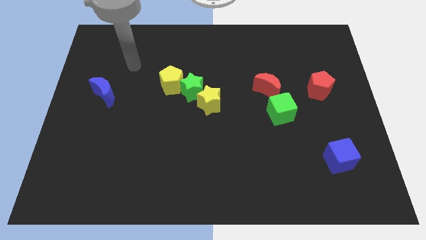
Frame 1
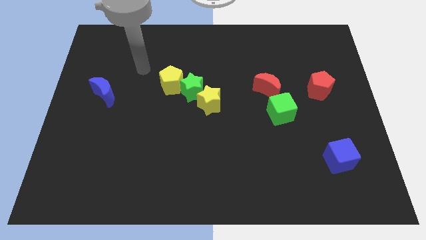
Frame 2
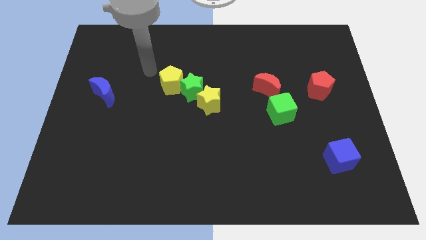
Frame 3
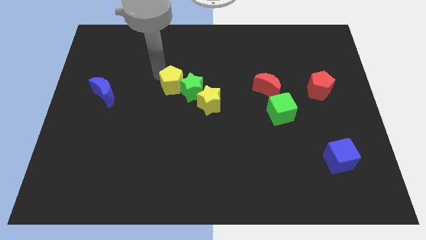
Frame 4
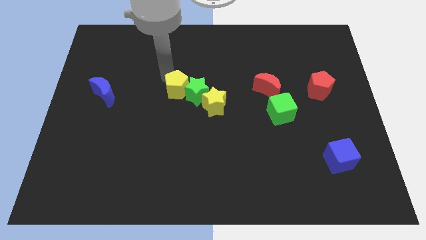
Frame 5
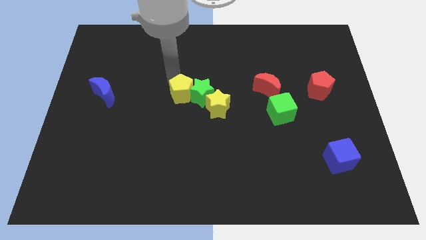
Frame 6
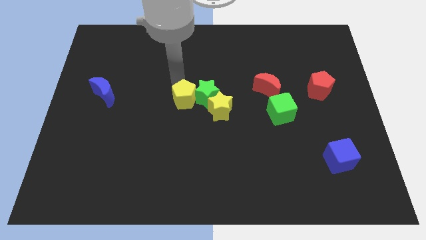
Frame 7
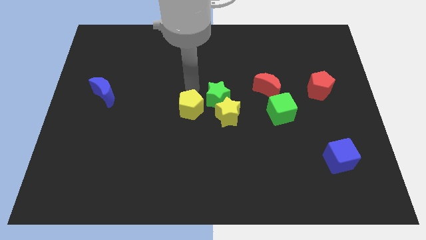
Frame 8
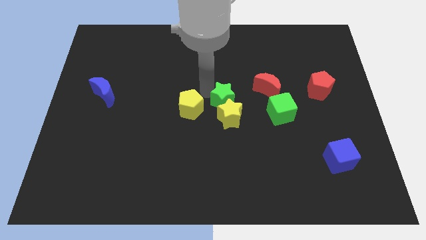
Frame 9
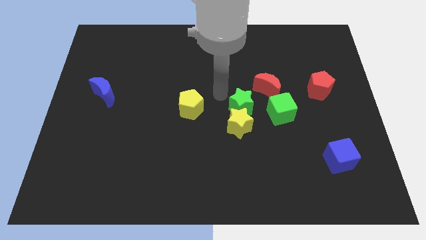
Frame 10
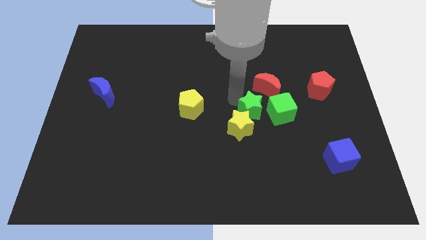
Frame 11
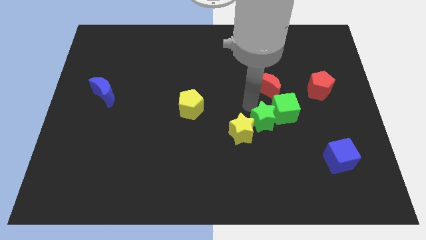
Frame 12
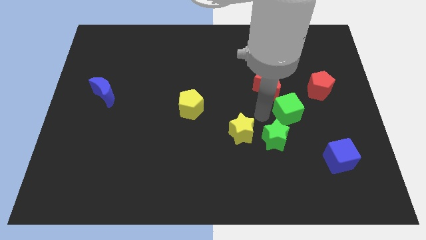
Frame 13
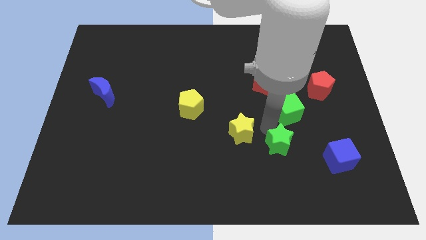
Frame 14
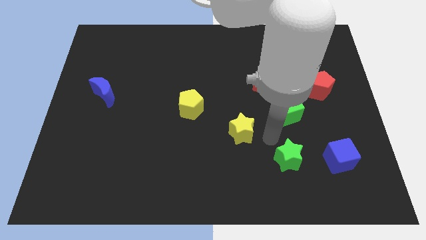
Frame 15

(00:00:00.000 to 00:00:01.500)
separate the yellow star from the green star

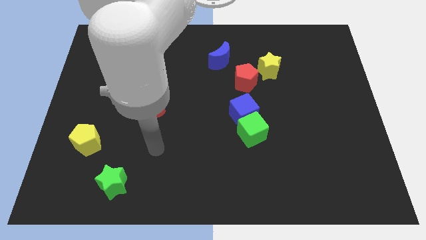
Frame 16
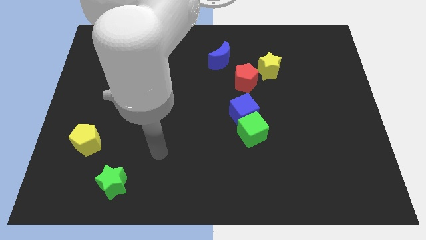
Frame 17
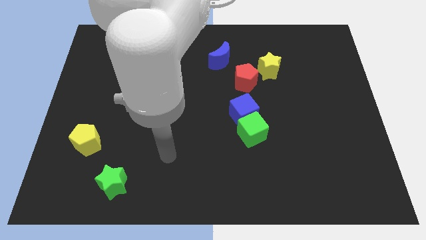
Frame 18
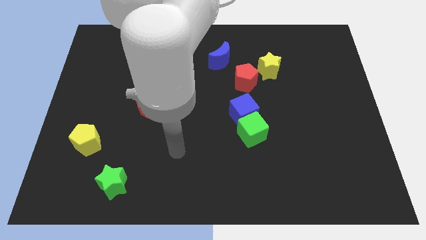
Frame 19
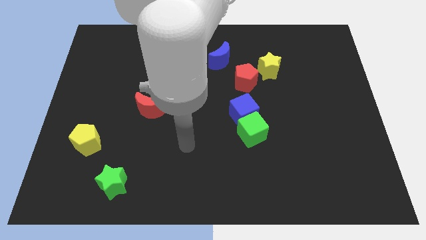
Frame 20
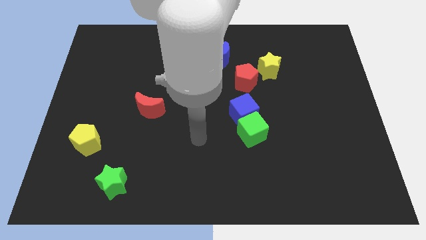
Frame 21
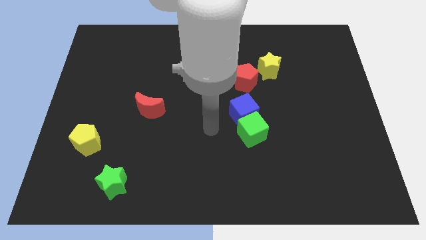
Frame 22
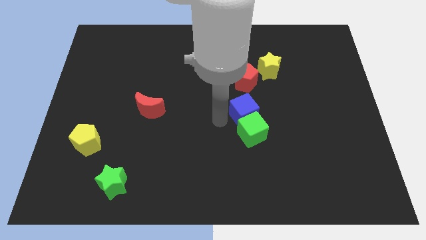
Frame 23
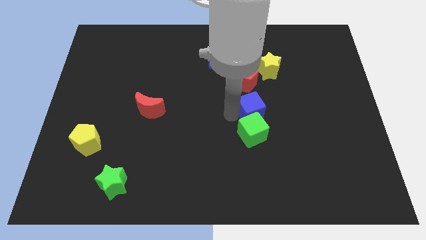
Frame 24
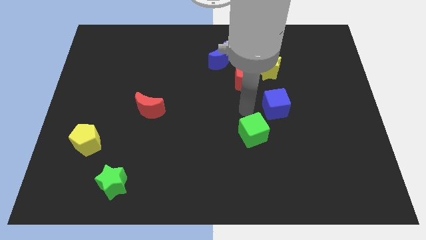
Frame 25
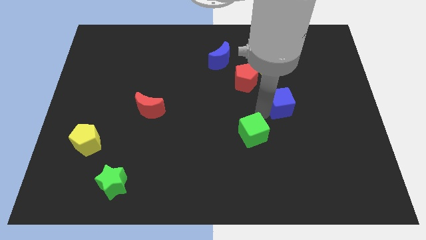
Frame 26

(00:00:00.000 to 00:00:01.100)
separate the green cube from the blue cube

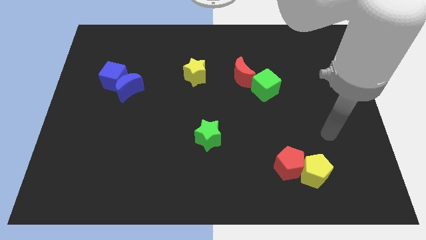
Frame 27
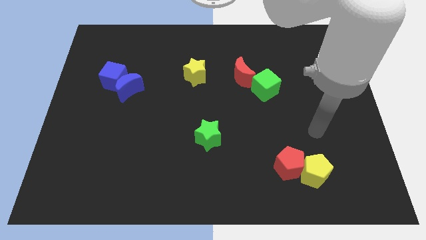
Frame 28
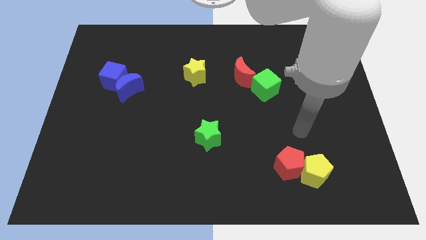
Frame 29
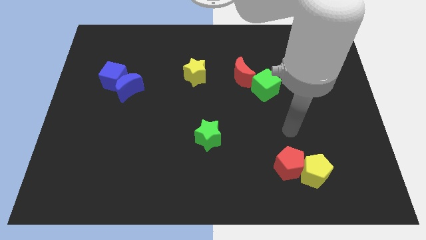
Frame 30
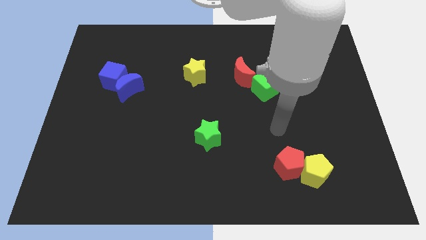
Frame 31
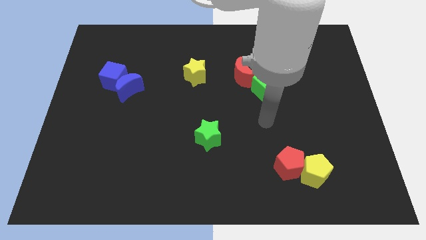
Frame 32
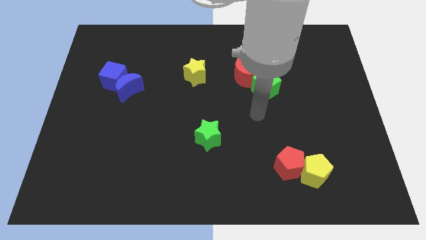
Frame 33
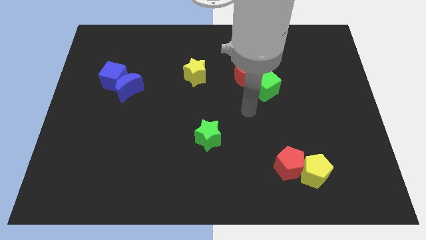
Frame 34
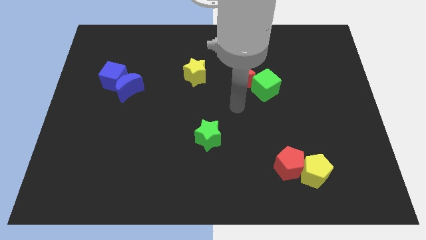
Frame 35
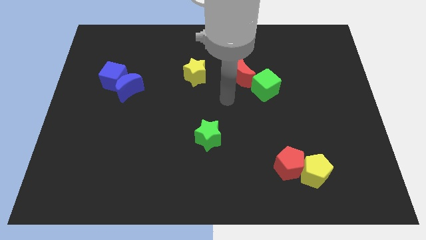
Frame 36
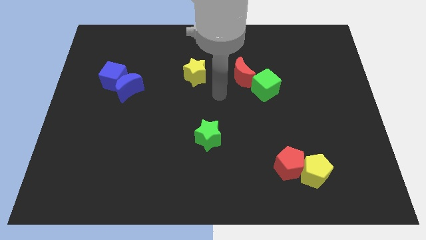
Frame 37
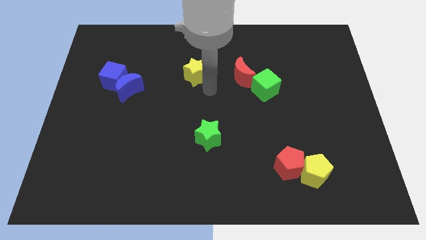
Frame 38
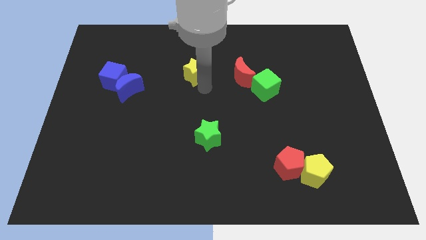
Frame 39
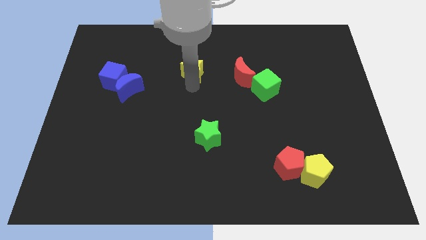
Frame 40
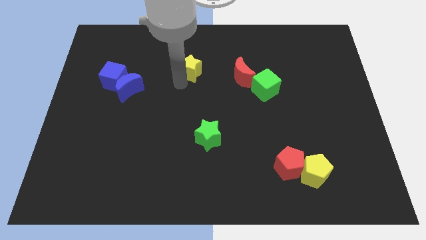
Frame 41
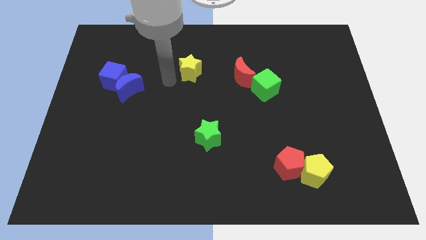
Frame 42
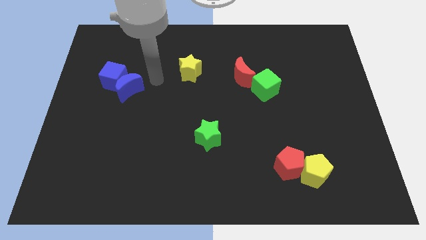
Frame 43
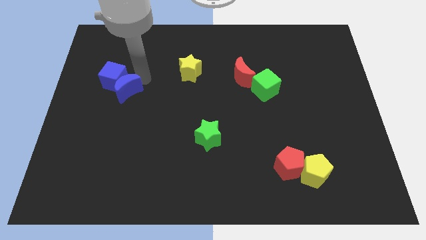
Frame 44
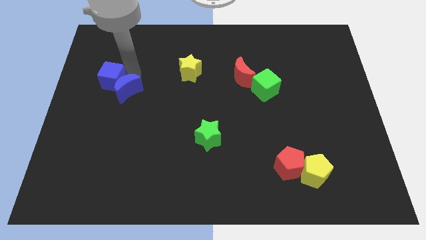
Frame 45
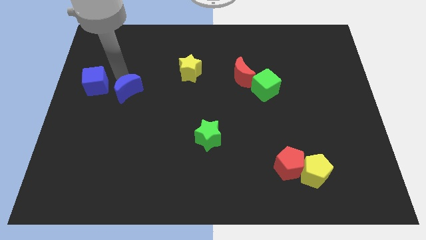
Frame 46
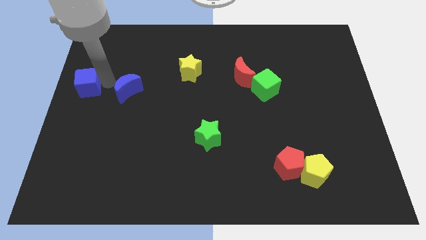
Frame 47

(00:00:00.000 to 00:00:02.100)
pull the blue moon apart from the blue cube

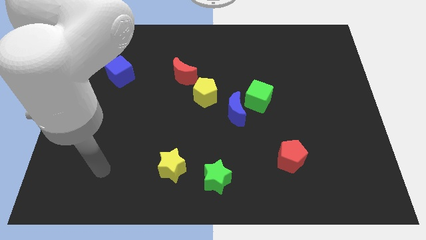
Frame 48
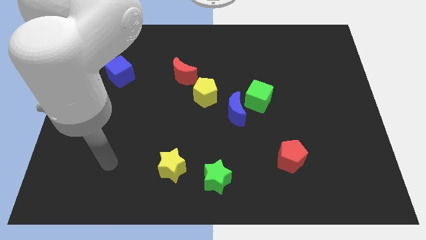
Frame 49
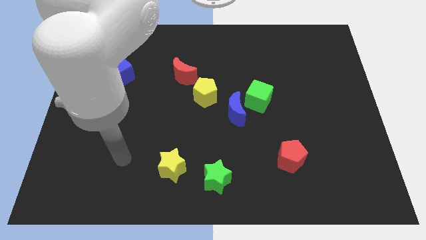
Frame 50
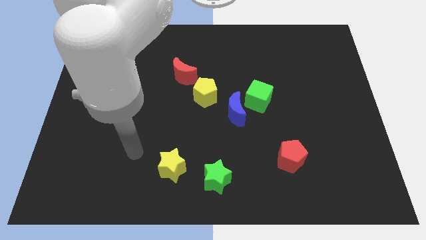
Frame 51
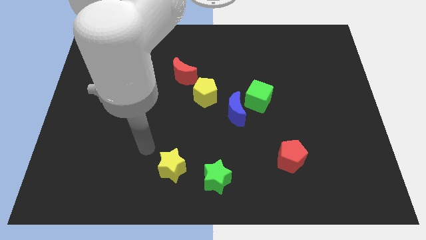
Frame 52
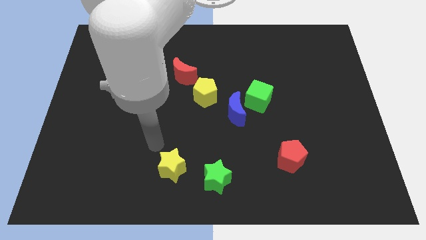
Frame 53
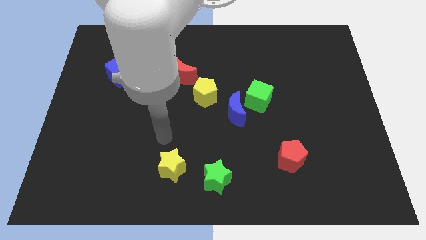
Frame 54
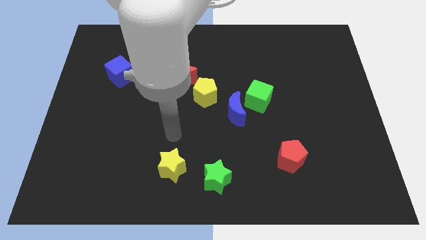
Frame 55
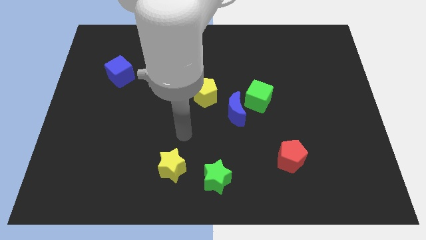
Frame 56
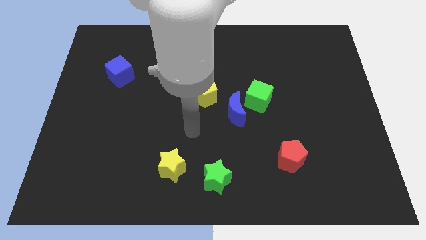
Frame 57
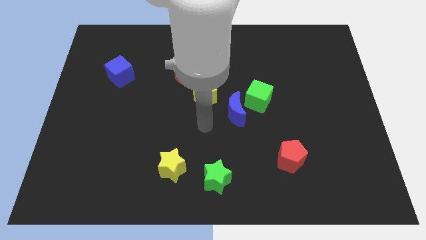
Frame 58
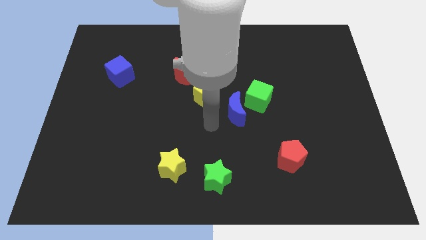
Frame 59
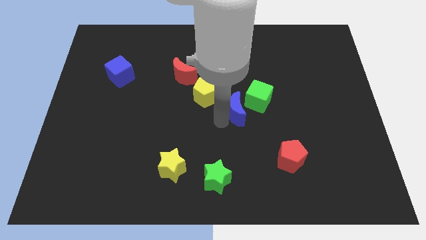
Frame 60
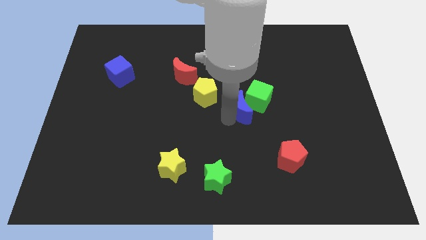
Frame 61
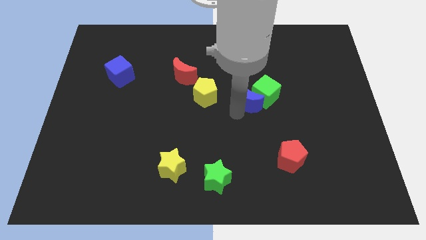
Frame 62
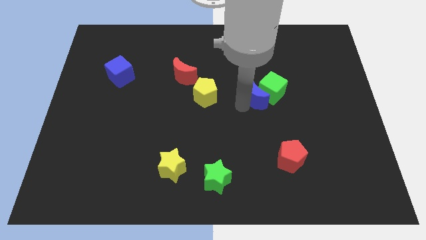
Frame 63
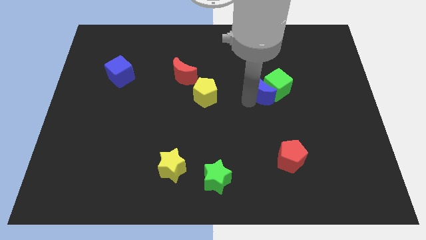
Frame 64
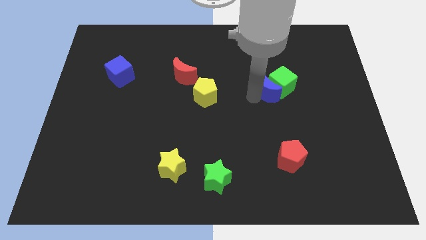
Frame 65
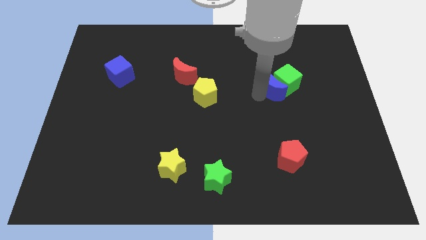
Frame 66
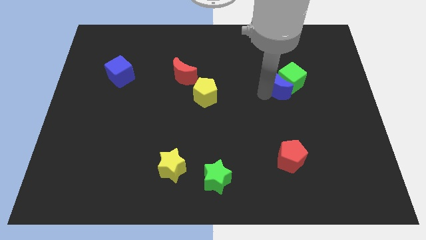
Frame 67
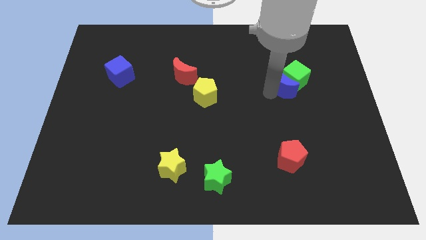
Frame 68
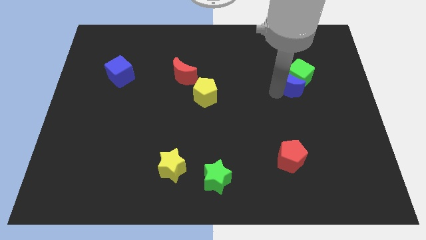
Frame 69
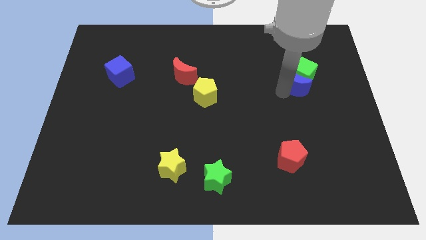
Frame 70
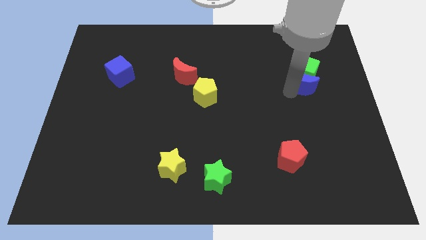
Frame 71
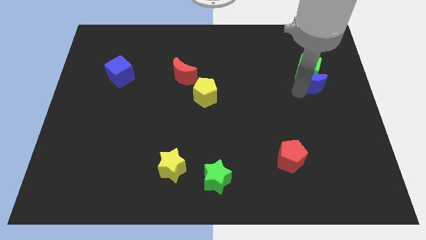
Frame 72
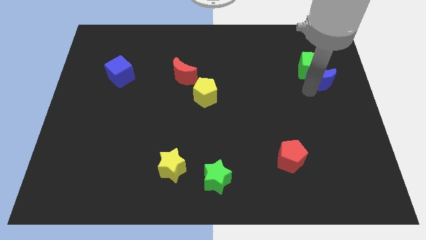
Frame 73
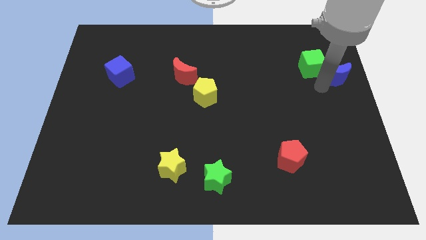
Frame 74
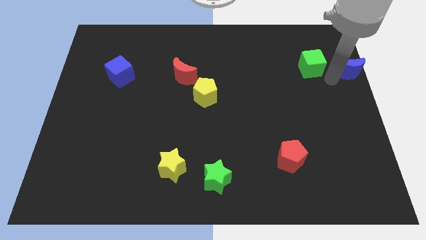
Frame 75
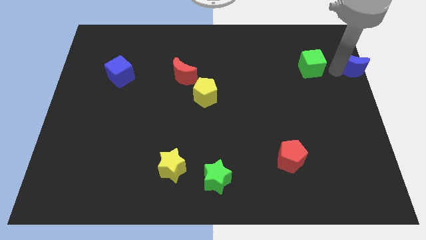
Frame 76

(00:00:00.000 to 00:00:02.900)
pull the green cube apart from the blue moon

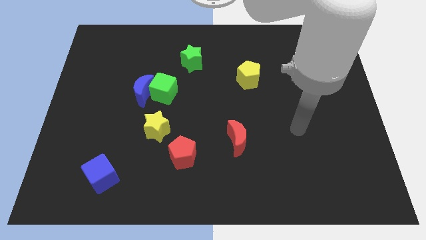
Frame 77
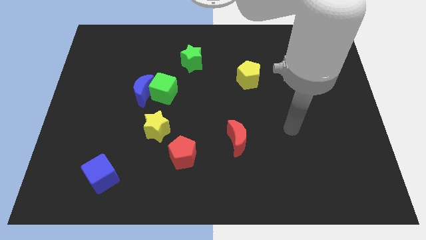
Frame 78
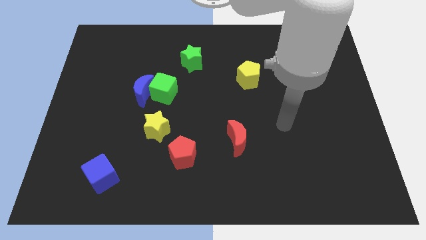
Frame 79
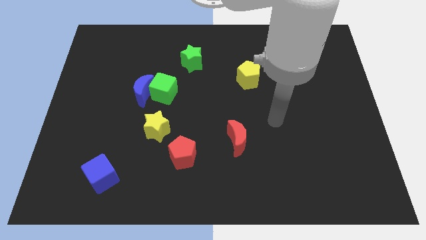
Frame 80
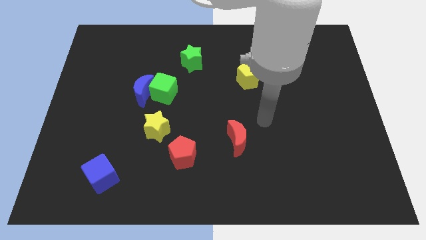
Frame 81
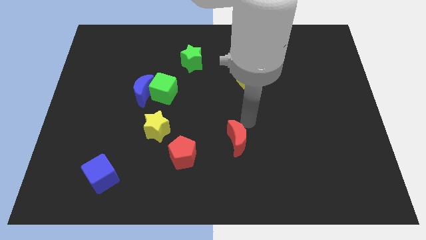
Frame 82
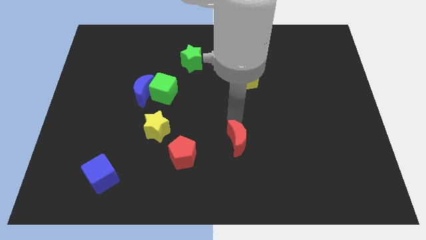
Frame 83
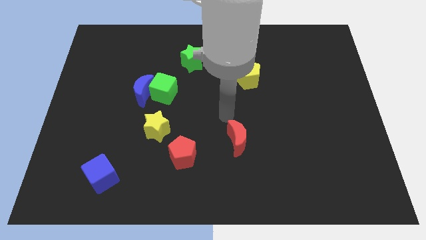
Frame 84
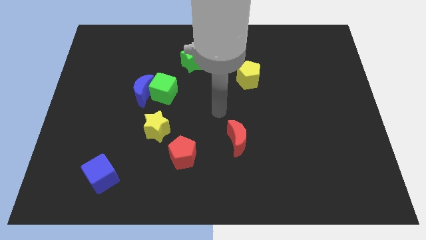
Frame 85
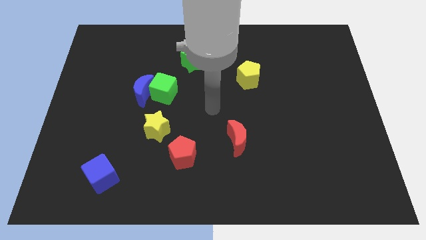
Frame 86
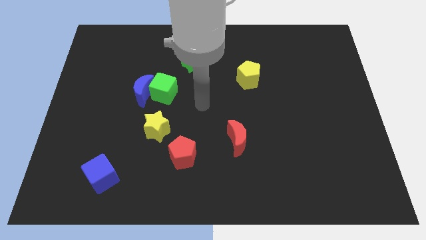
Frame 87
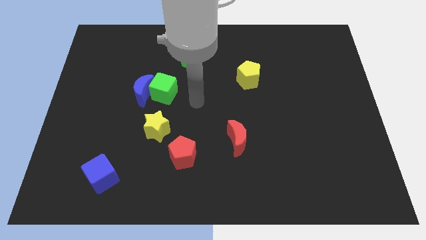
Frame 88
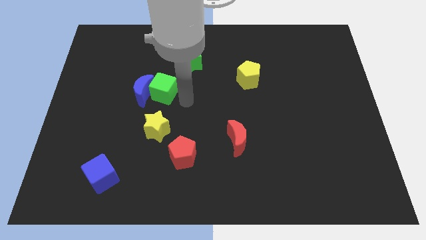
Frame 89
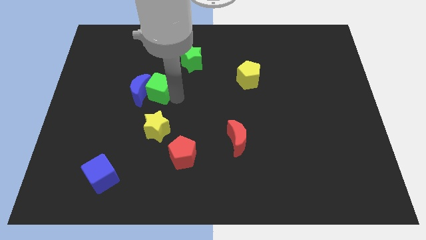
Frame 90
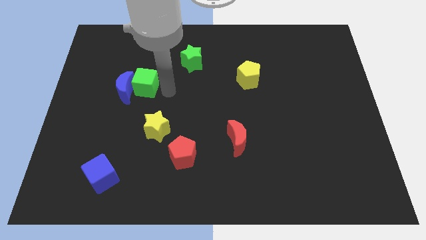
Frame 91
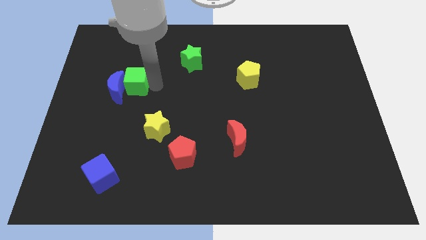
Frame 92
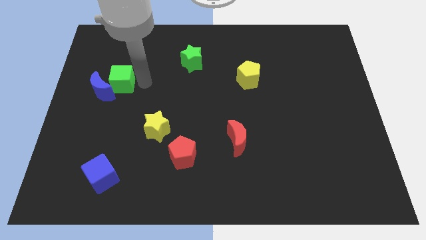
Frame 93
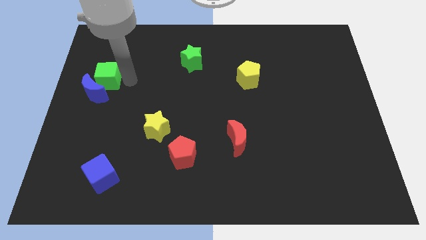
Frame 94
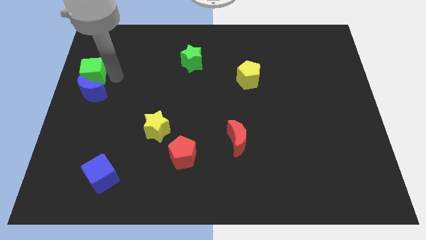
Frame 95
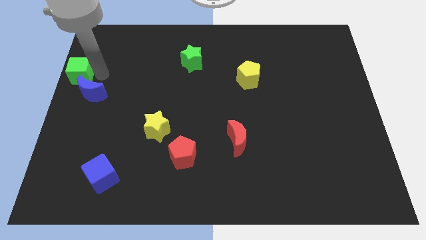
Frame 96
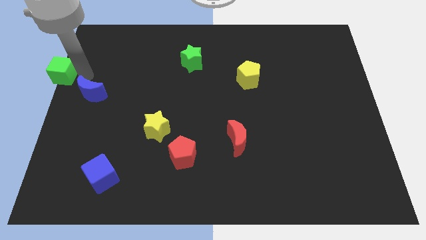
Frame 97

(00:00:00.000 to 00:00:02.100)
separate the blue moon from the green cube
